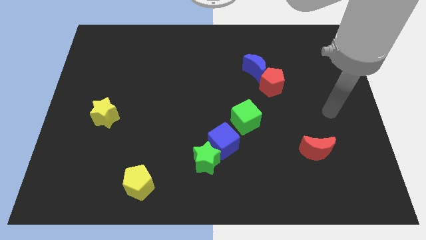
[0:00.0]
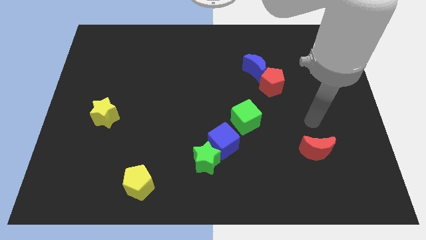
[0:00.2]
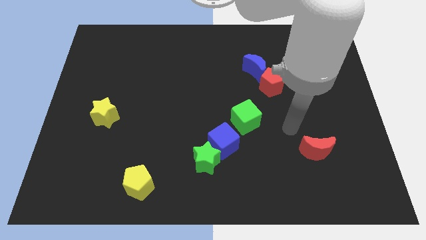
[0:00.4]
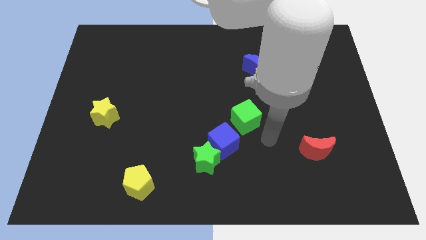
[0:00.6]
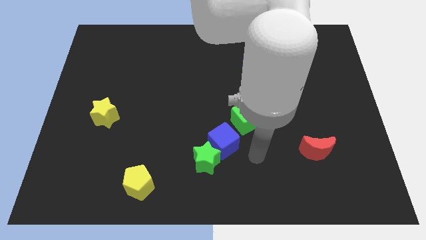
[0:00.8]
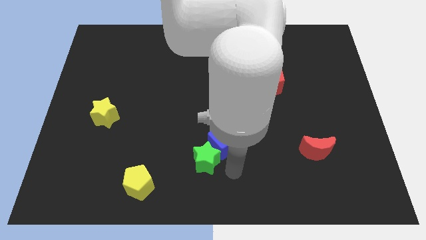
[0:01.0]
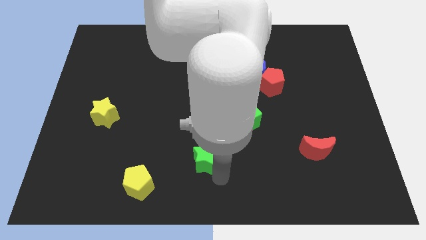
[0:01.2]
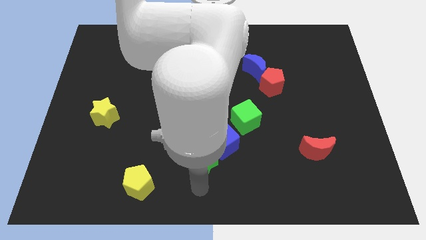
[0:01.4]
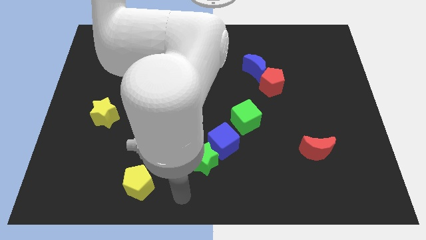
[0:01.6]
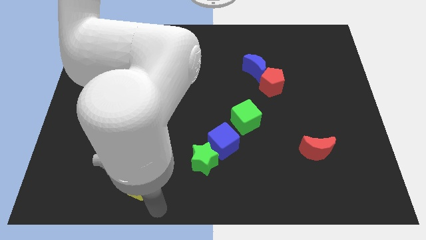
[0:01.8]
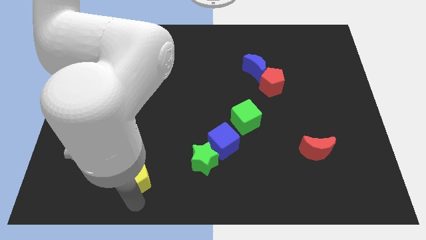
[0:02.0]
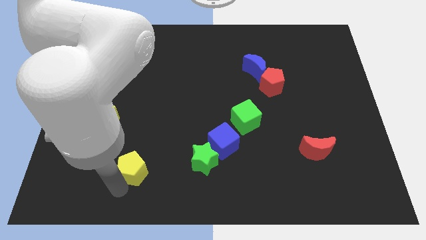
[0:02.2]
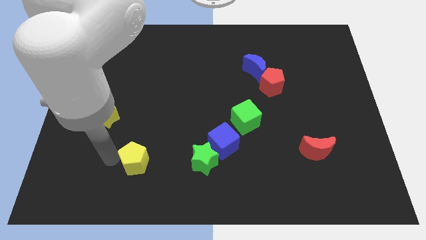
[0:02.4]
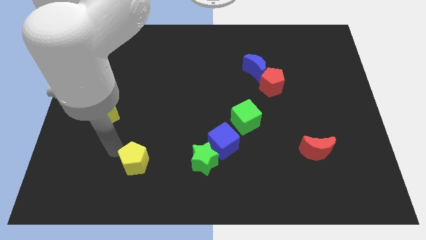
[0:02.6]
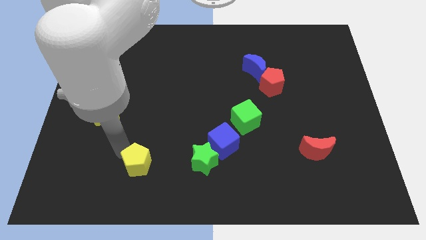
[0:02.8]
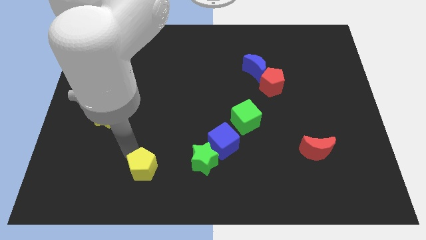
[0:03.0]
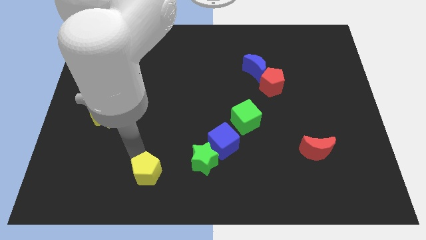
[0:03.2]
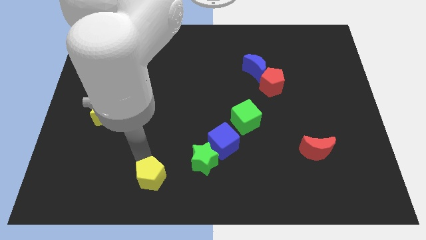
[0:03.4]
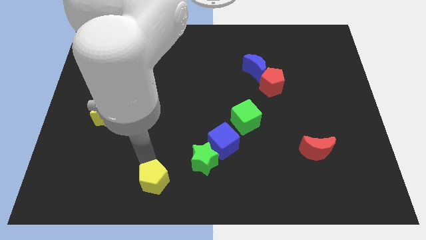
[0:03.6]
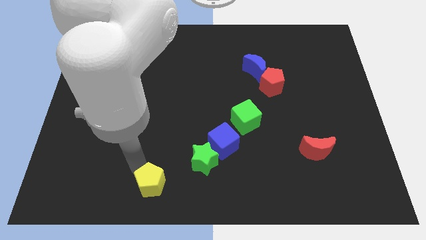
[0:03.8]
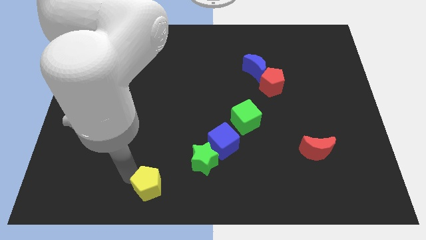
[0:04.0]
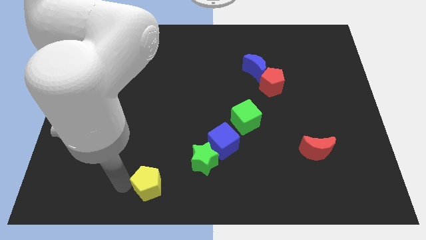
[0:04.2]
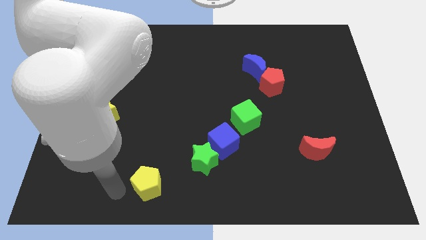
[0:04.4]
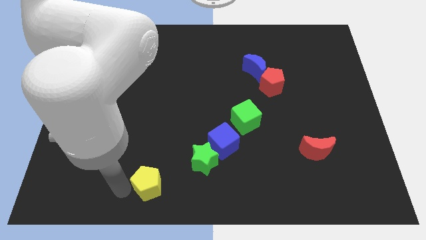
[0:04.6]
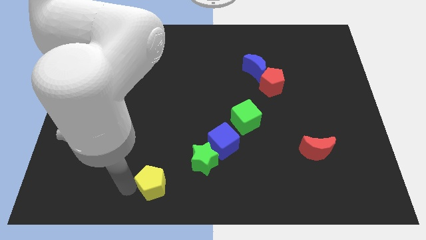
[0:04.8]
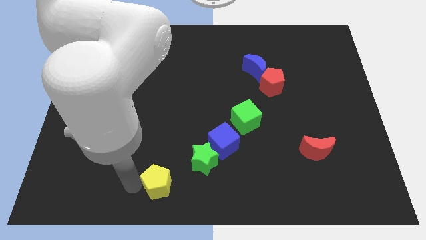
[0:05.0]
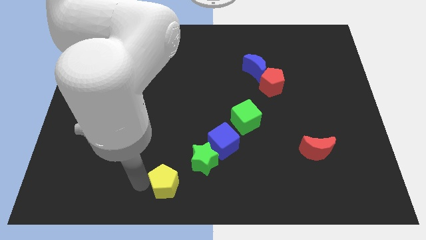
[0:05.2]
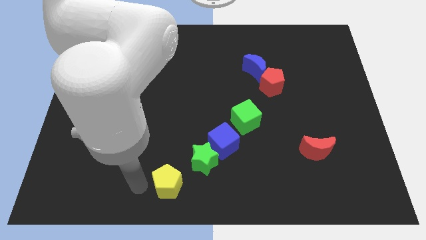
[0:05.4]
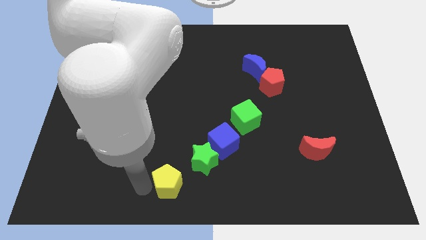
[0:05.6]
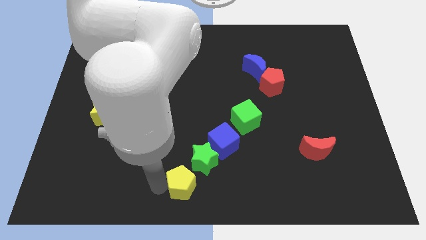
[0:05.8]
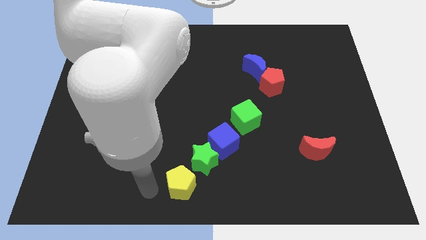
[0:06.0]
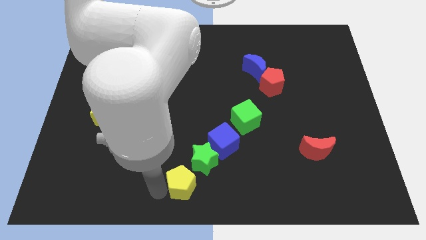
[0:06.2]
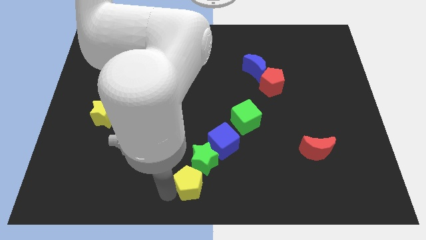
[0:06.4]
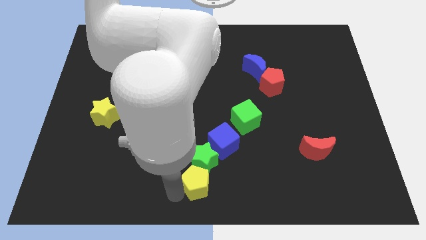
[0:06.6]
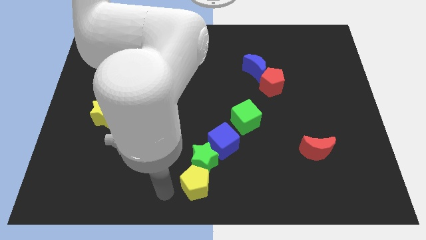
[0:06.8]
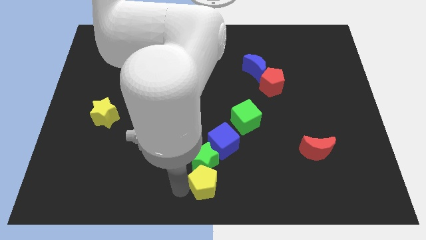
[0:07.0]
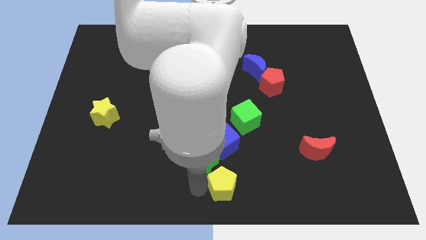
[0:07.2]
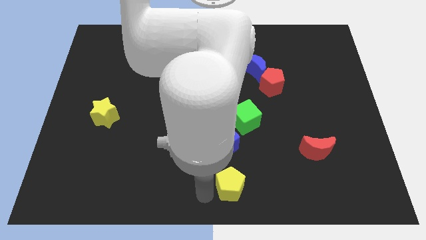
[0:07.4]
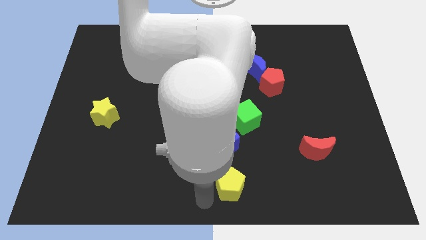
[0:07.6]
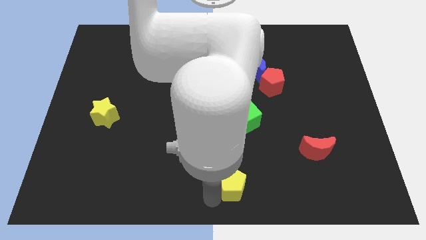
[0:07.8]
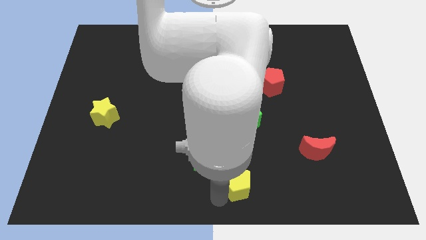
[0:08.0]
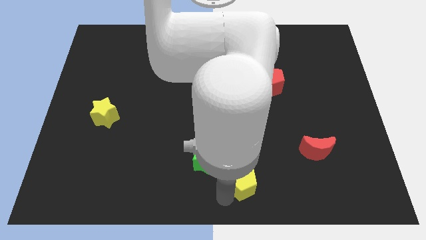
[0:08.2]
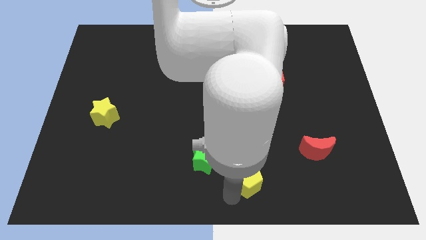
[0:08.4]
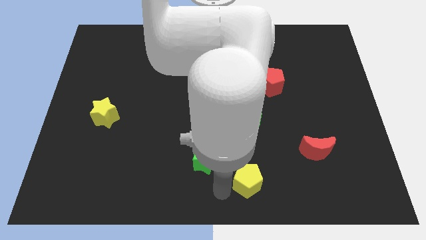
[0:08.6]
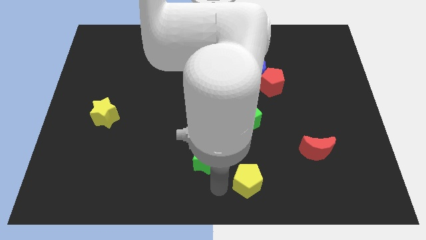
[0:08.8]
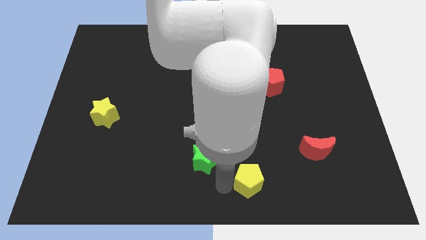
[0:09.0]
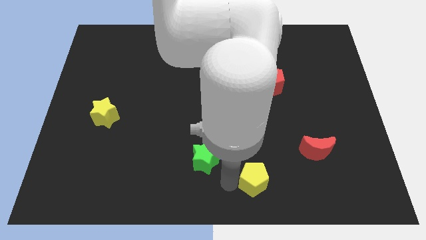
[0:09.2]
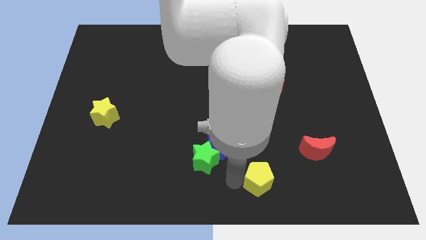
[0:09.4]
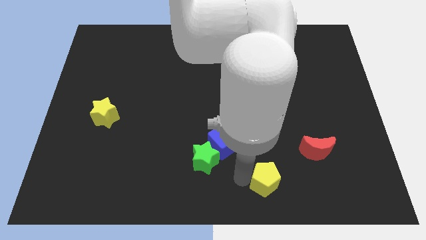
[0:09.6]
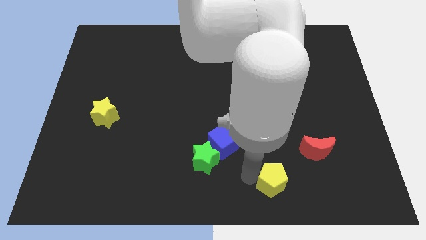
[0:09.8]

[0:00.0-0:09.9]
push the yellow pentagon to the bottom left of the red moon

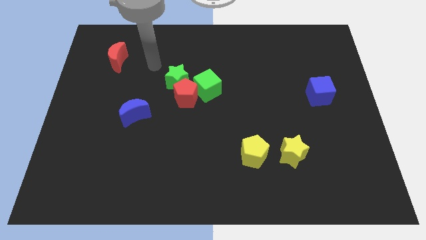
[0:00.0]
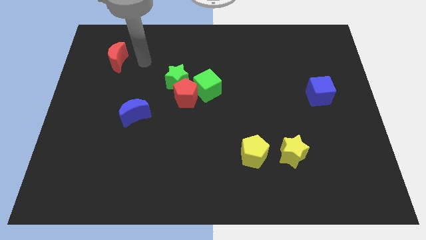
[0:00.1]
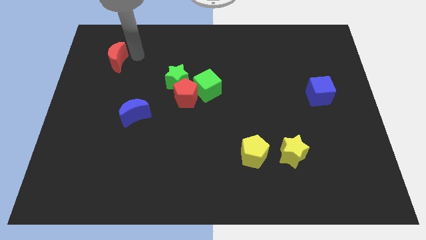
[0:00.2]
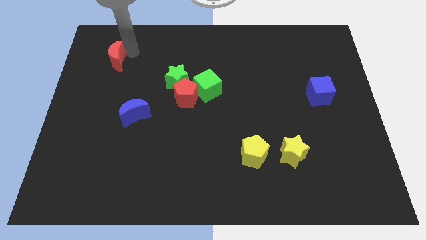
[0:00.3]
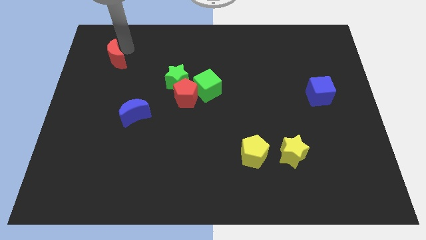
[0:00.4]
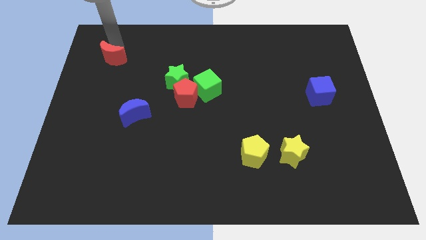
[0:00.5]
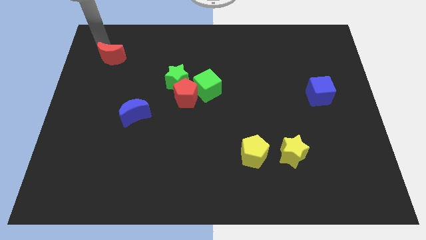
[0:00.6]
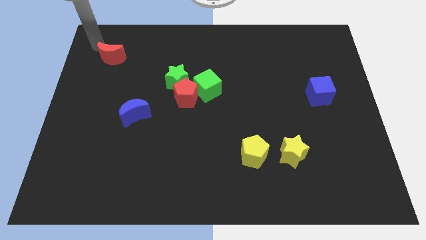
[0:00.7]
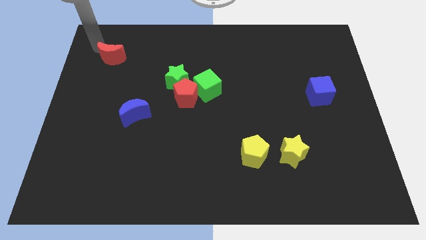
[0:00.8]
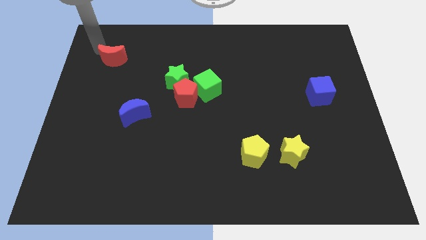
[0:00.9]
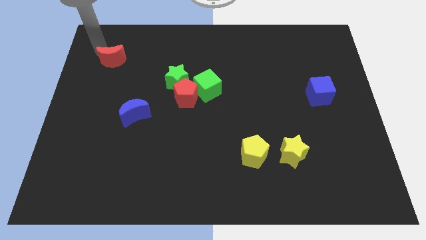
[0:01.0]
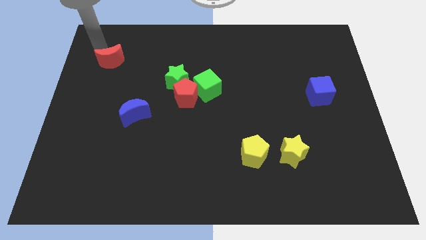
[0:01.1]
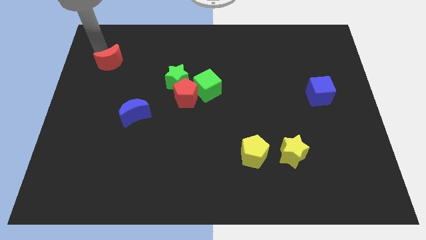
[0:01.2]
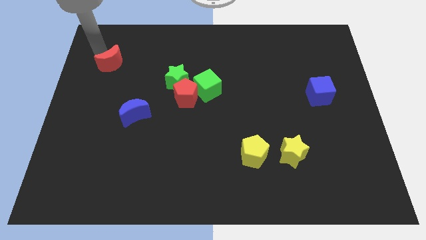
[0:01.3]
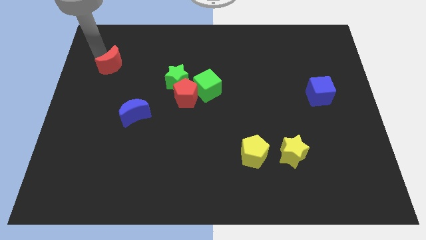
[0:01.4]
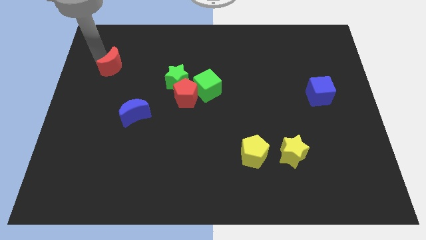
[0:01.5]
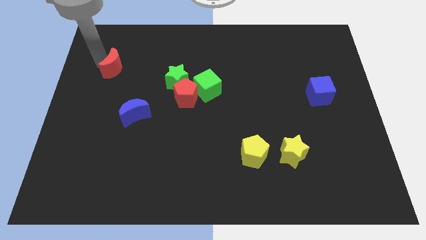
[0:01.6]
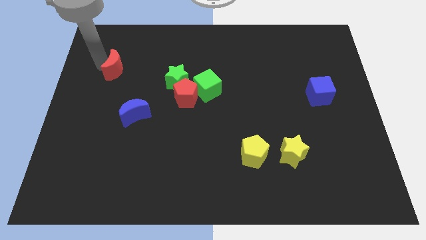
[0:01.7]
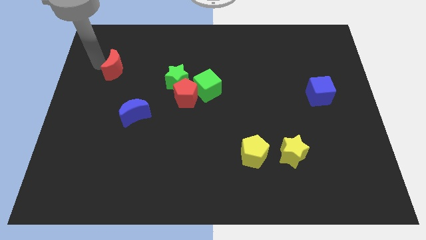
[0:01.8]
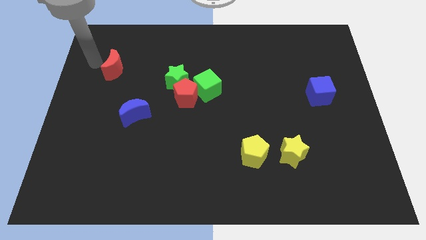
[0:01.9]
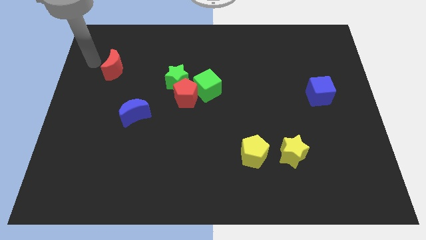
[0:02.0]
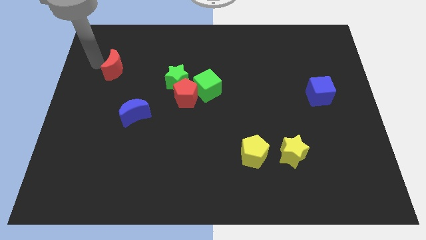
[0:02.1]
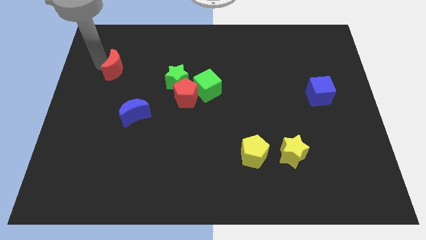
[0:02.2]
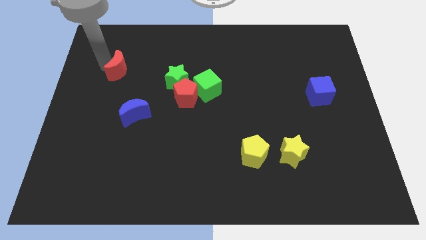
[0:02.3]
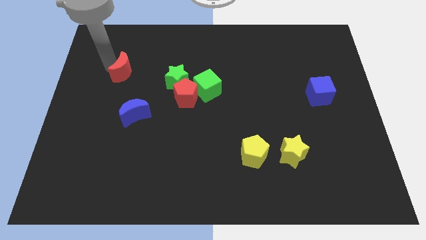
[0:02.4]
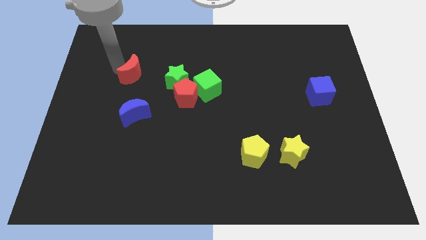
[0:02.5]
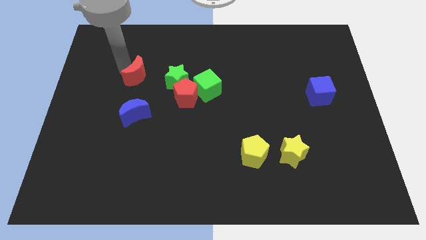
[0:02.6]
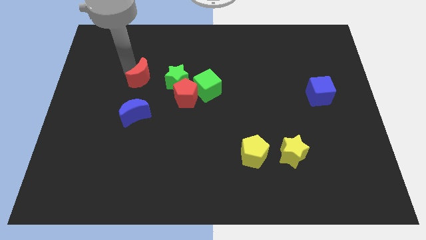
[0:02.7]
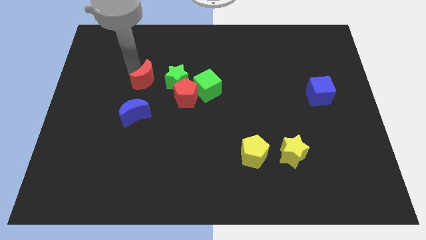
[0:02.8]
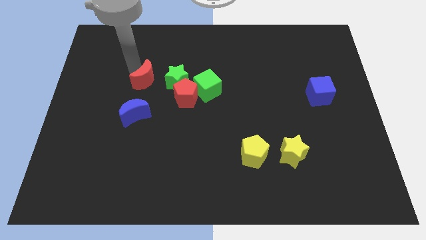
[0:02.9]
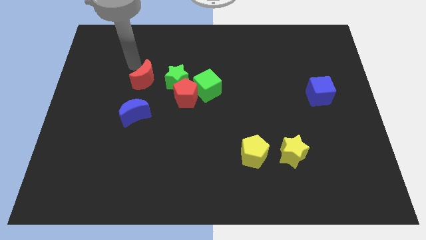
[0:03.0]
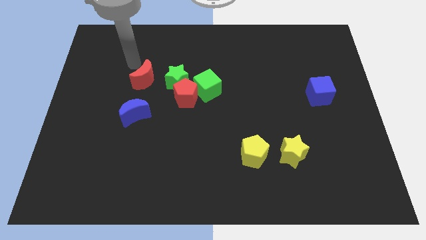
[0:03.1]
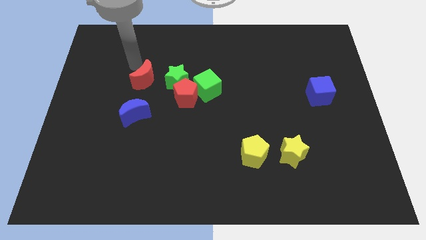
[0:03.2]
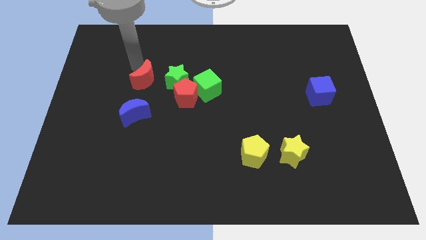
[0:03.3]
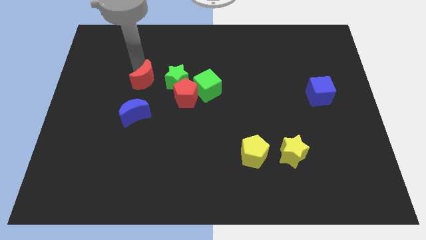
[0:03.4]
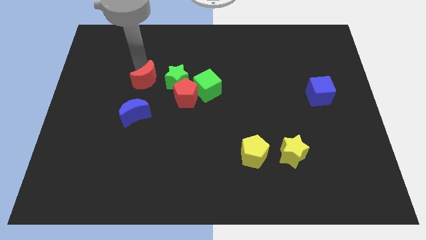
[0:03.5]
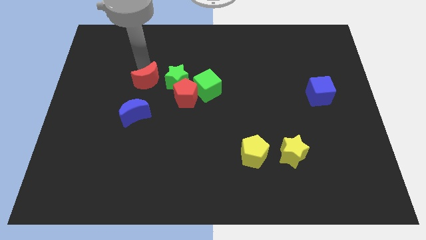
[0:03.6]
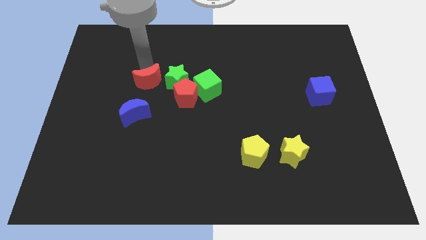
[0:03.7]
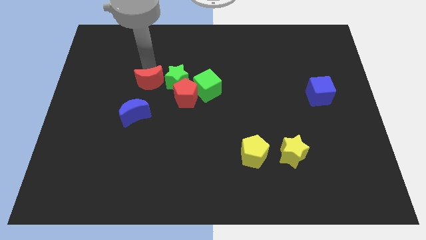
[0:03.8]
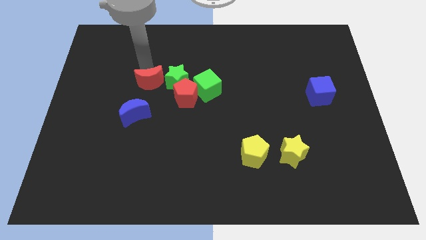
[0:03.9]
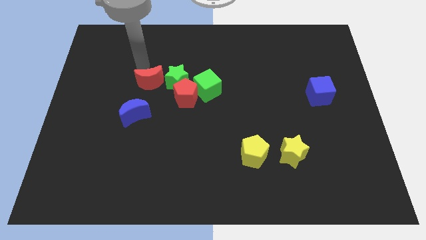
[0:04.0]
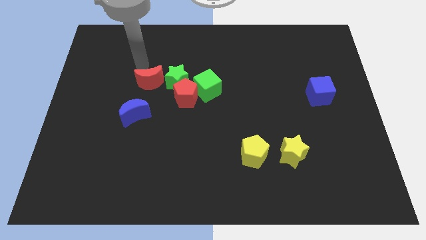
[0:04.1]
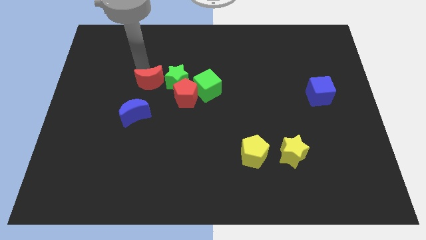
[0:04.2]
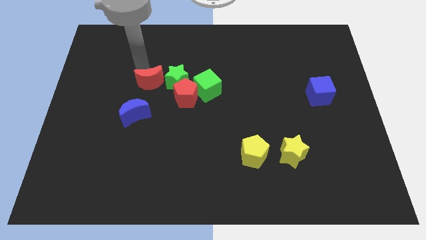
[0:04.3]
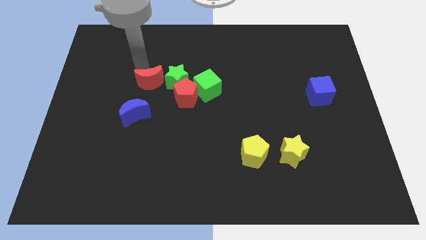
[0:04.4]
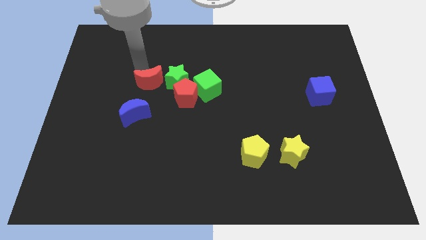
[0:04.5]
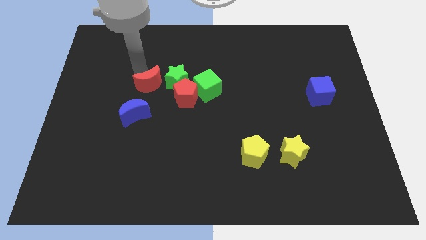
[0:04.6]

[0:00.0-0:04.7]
move the red moon diagonally up and to the right of the blue moon
